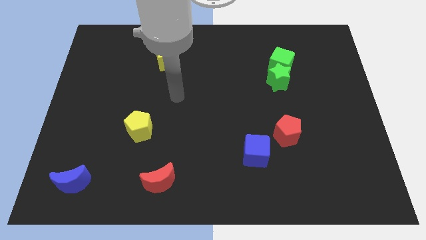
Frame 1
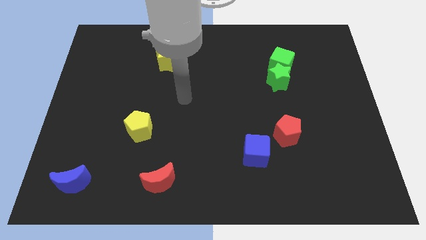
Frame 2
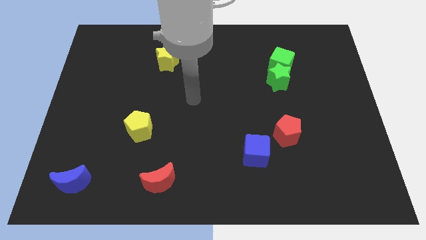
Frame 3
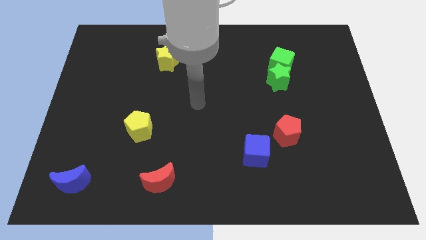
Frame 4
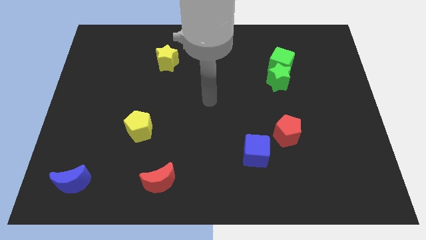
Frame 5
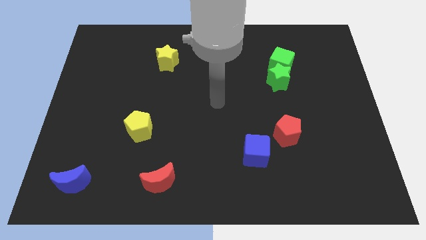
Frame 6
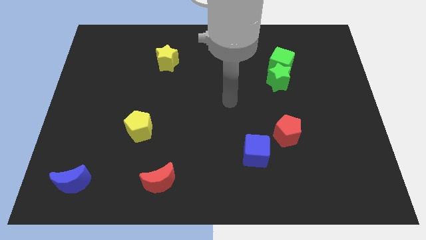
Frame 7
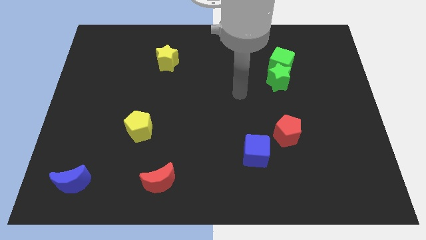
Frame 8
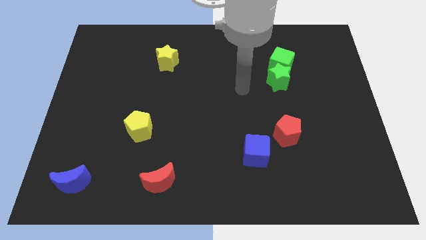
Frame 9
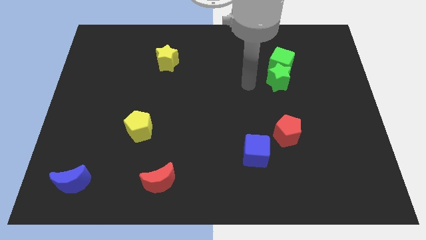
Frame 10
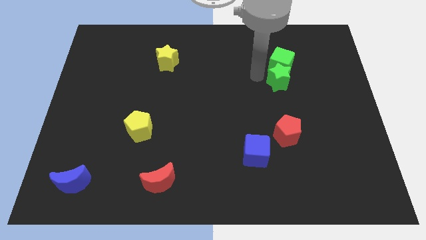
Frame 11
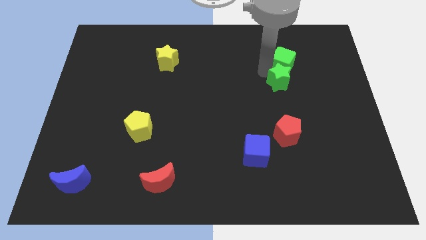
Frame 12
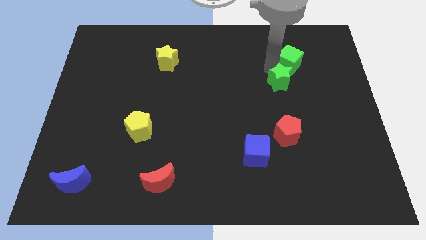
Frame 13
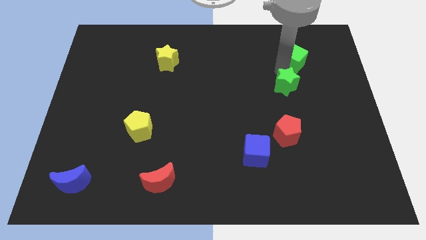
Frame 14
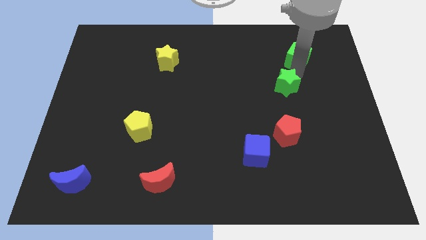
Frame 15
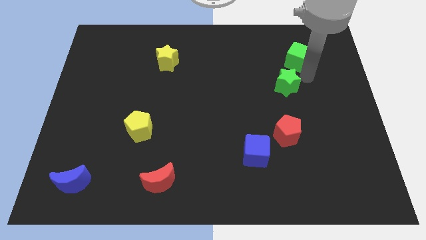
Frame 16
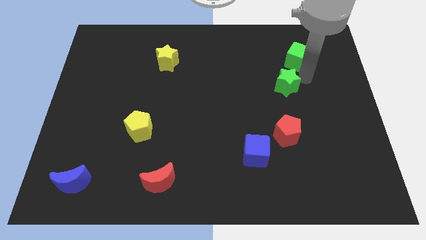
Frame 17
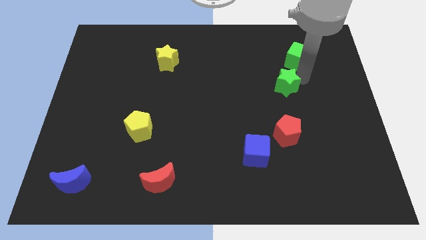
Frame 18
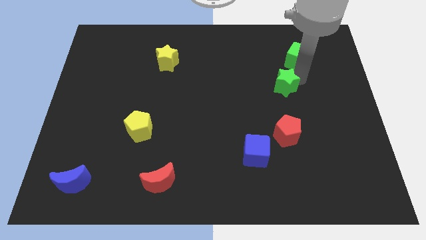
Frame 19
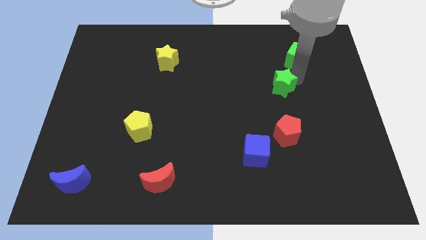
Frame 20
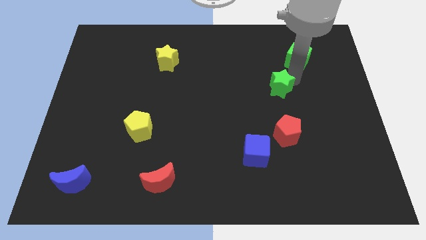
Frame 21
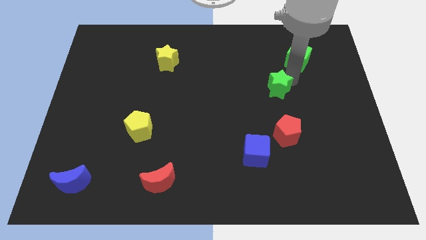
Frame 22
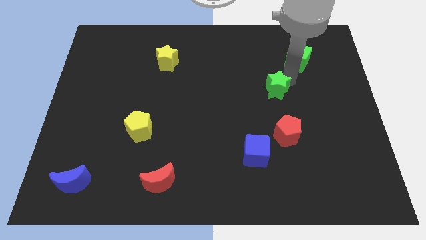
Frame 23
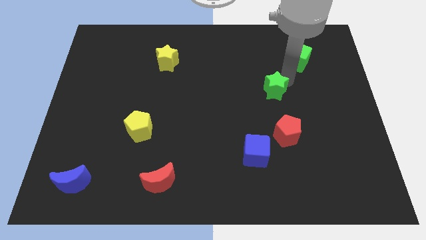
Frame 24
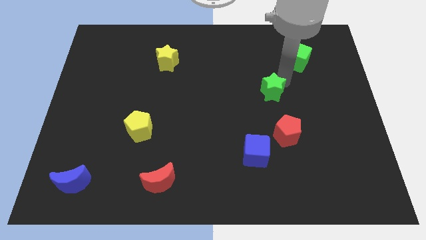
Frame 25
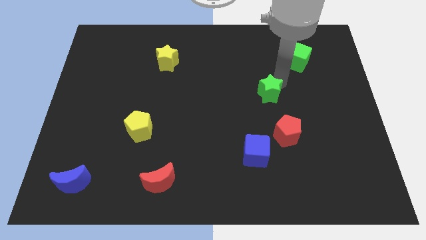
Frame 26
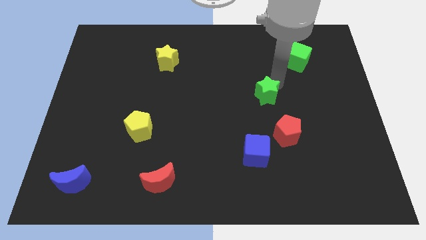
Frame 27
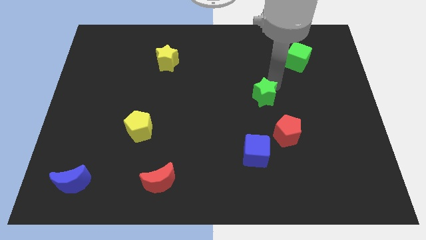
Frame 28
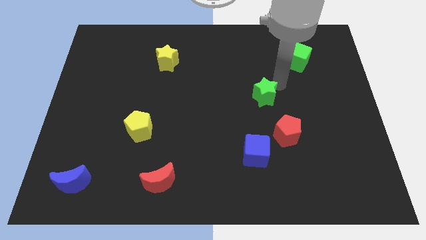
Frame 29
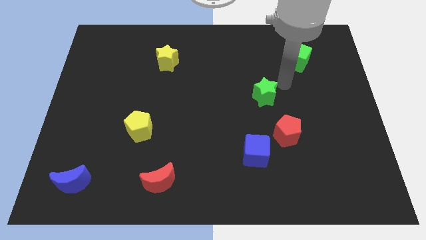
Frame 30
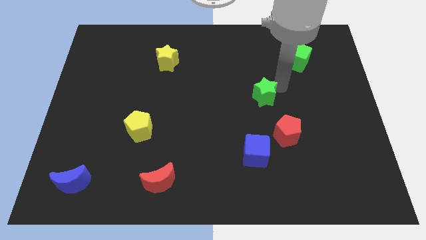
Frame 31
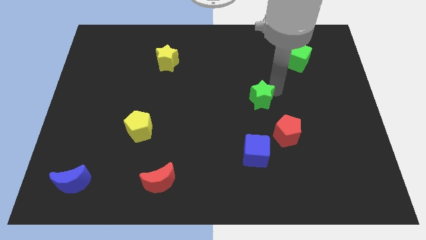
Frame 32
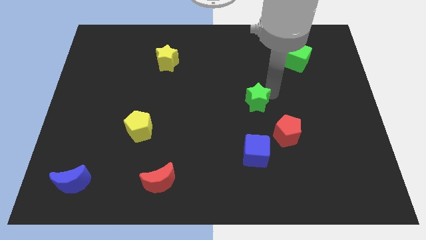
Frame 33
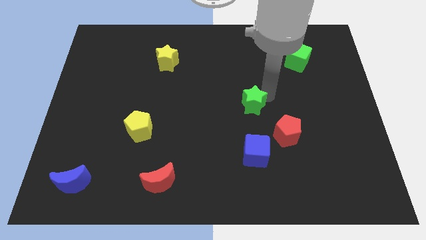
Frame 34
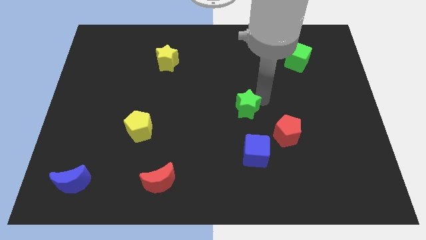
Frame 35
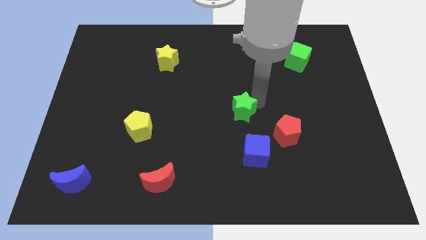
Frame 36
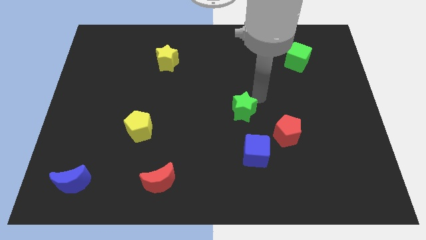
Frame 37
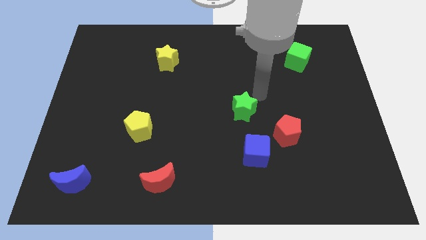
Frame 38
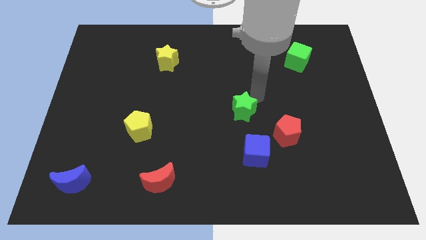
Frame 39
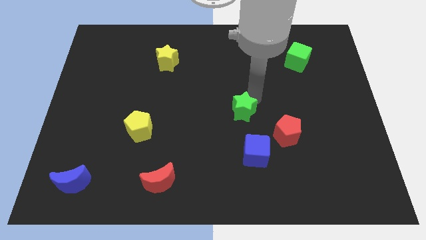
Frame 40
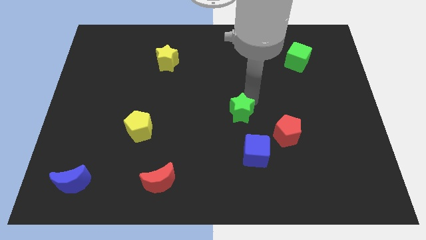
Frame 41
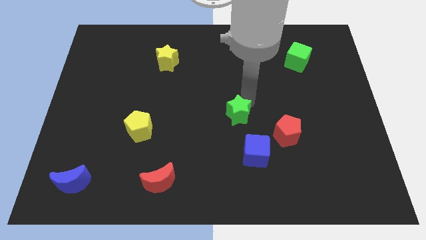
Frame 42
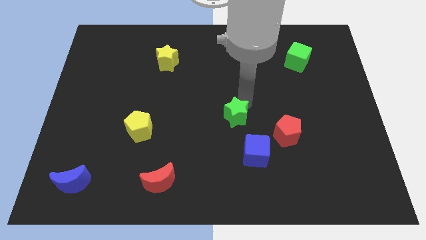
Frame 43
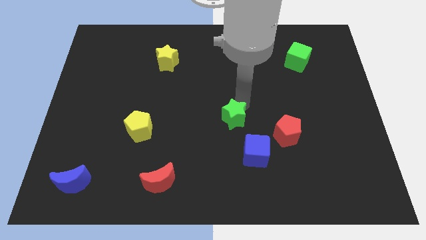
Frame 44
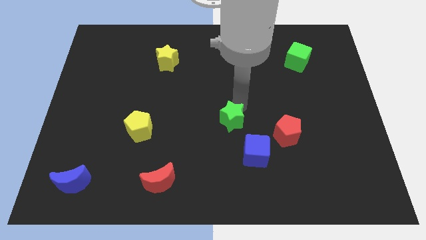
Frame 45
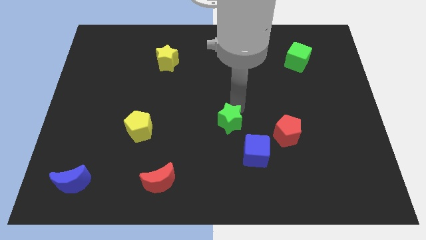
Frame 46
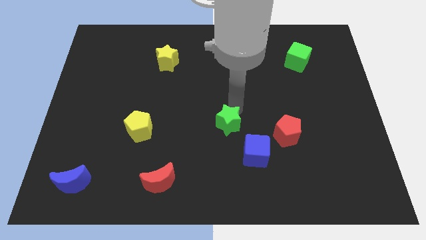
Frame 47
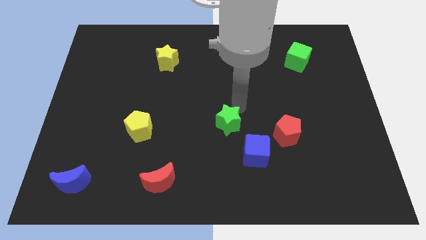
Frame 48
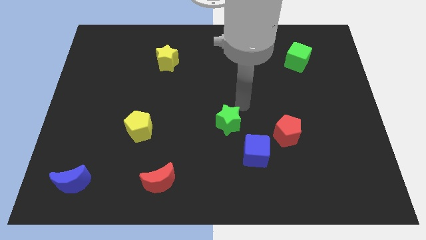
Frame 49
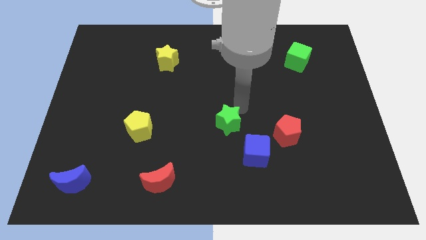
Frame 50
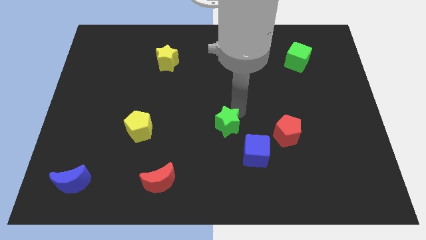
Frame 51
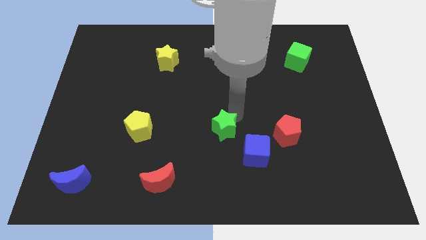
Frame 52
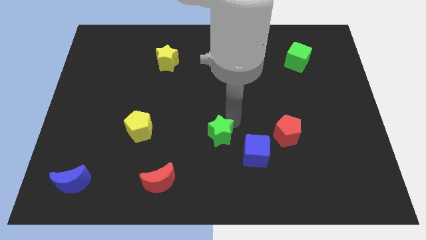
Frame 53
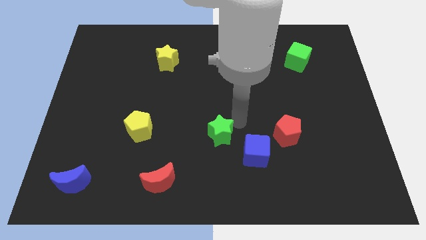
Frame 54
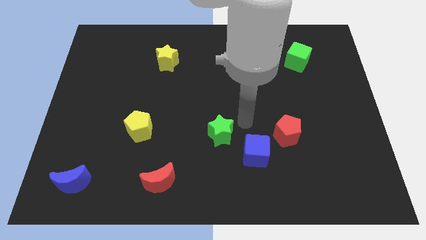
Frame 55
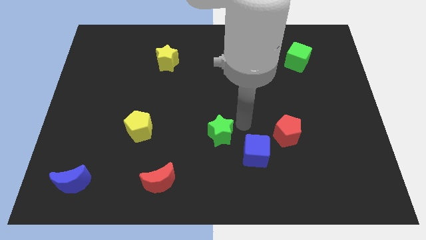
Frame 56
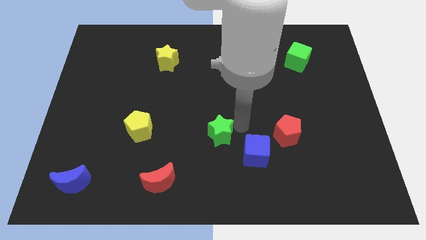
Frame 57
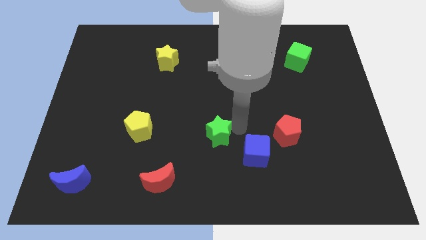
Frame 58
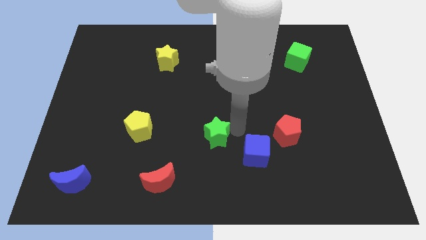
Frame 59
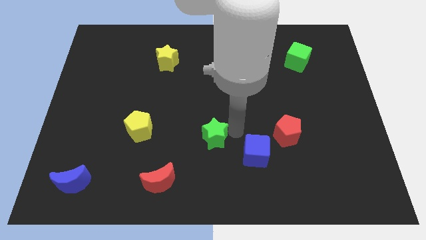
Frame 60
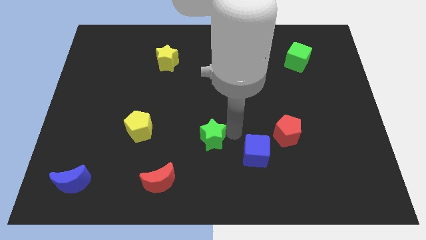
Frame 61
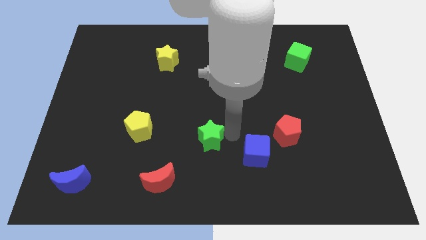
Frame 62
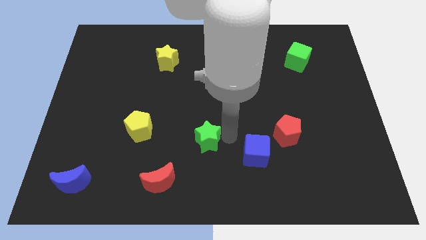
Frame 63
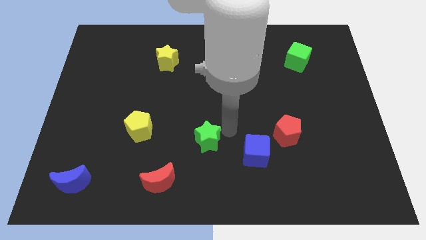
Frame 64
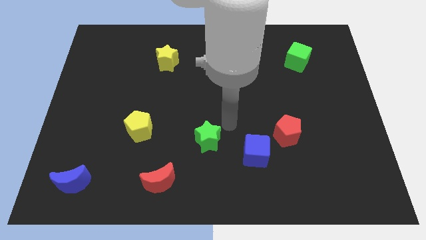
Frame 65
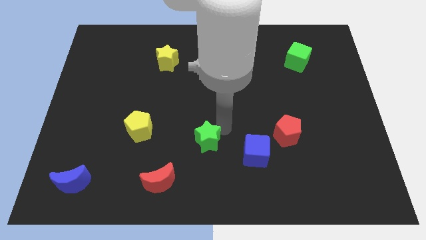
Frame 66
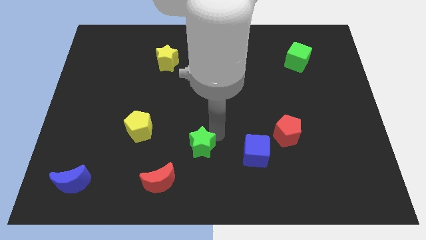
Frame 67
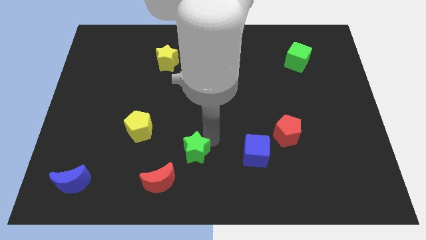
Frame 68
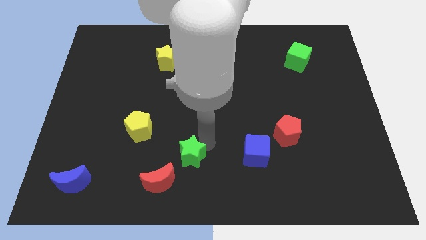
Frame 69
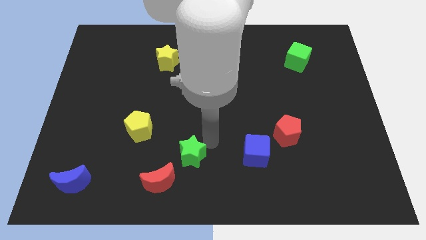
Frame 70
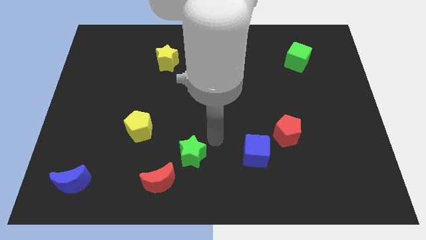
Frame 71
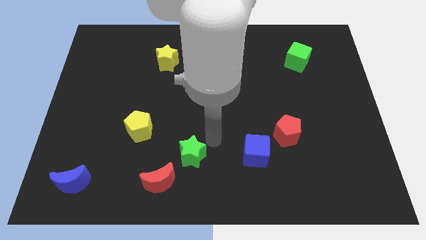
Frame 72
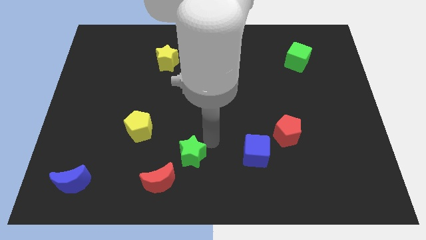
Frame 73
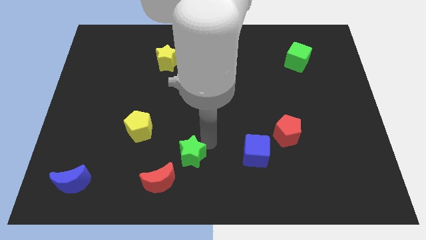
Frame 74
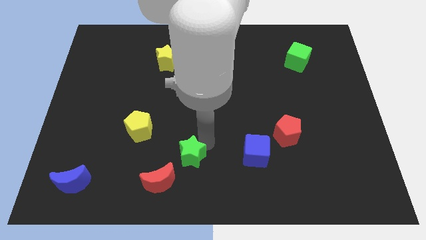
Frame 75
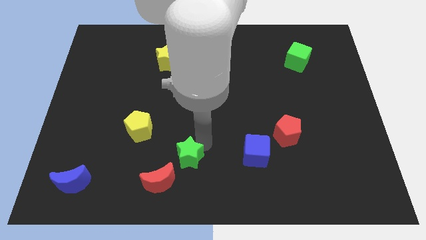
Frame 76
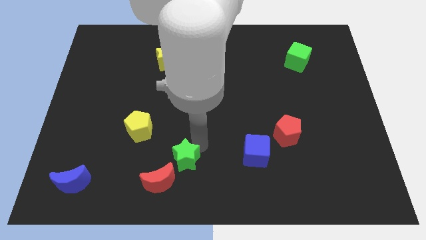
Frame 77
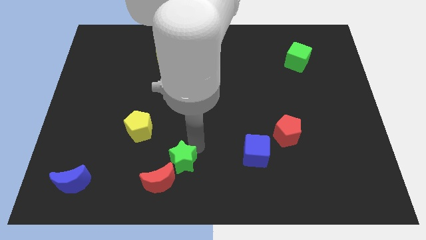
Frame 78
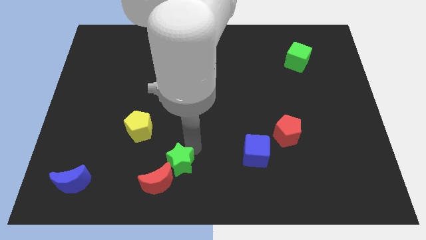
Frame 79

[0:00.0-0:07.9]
move the green star next to the red moon

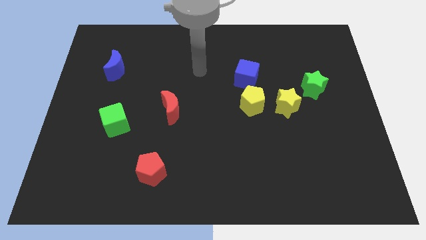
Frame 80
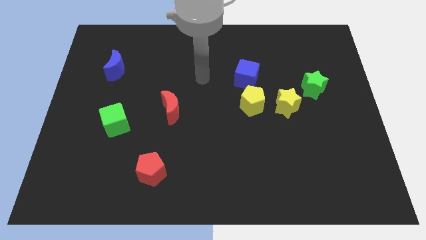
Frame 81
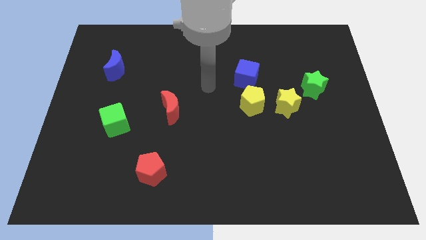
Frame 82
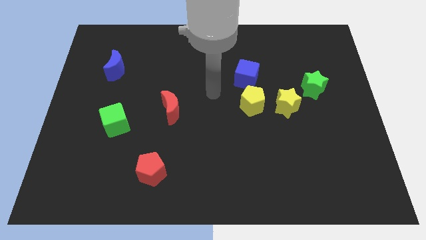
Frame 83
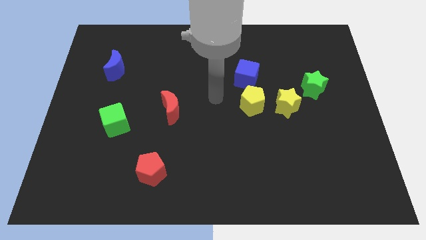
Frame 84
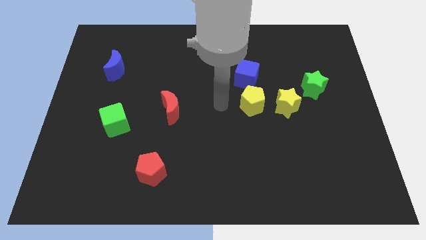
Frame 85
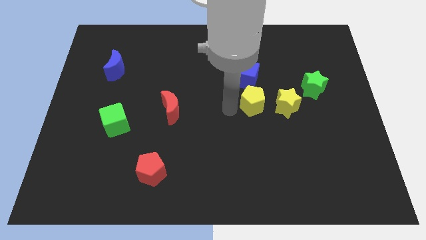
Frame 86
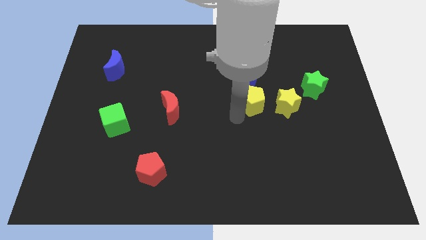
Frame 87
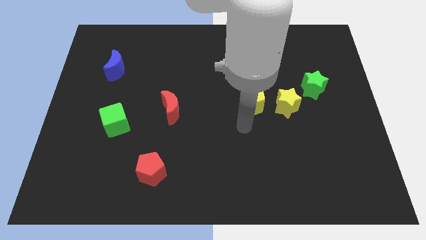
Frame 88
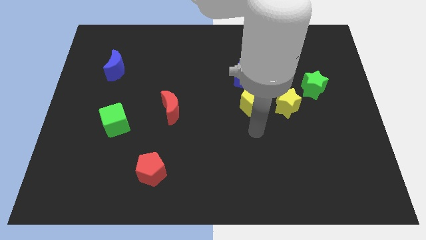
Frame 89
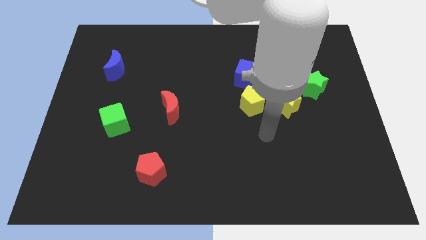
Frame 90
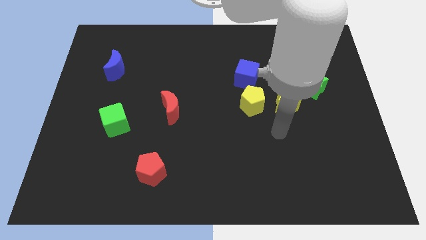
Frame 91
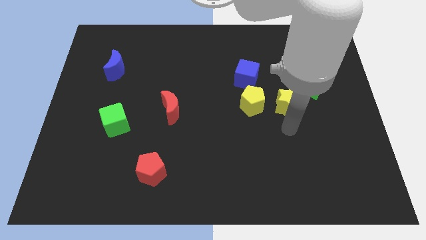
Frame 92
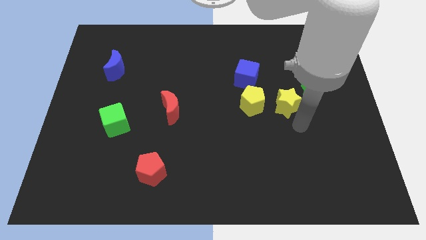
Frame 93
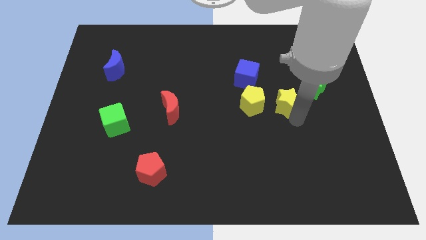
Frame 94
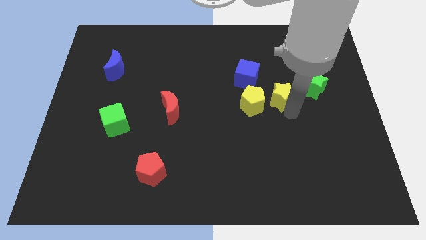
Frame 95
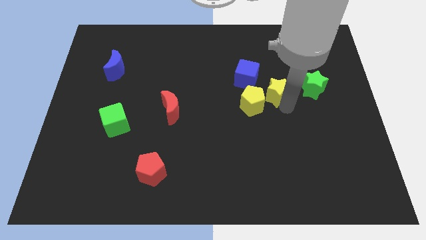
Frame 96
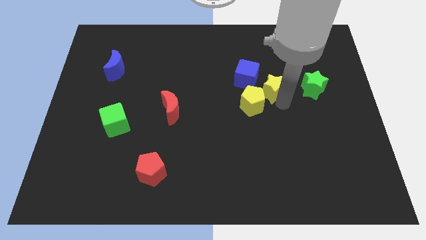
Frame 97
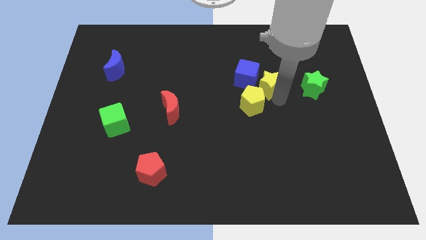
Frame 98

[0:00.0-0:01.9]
slide the yellow star to the blue cube
